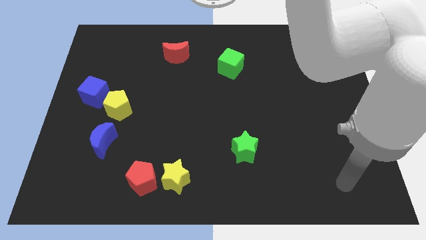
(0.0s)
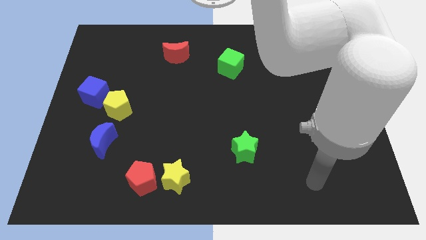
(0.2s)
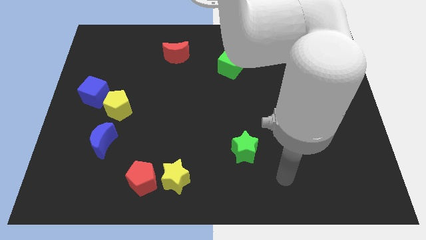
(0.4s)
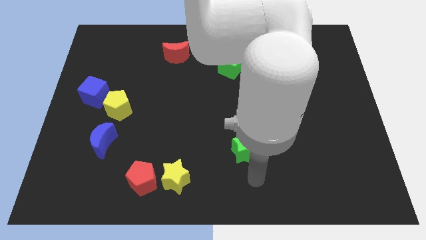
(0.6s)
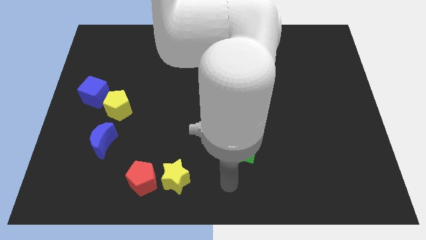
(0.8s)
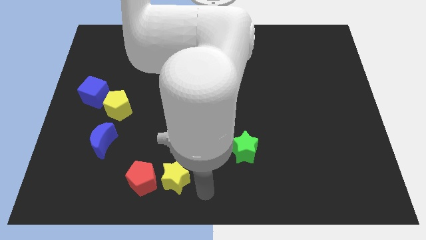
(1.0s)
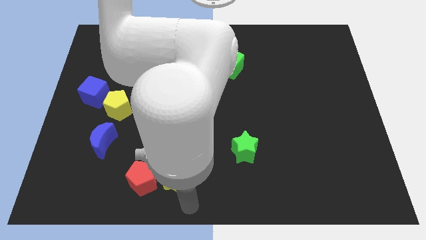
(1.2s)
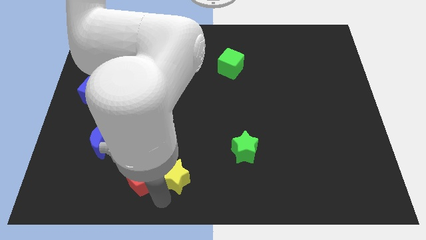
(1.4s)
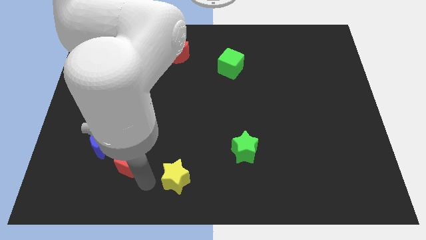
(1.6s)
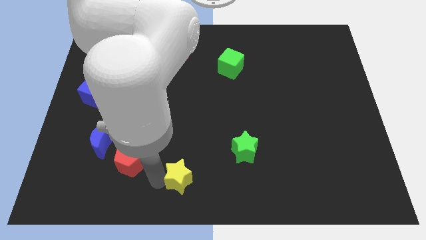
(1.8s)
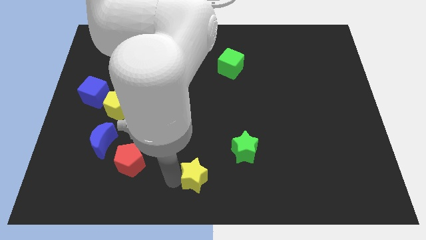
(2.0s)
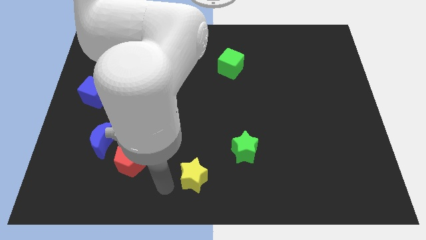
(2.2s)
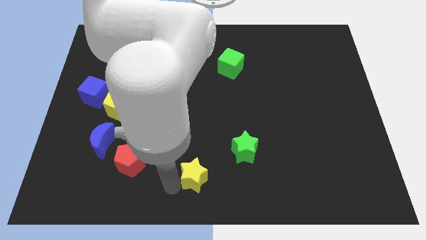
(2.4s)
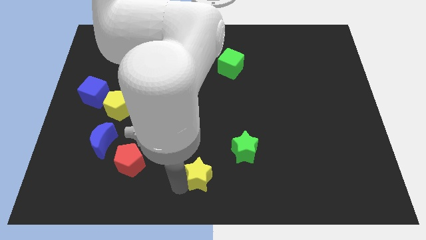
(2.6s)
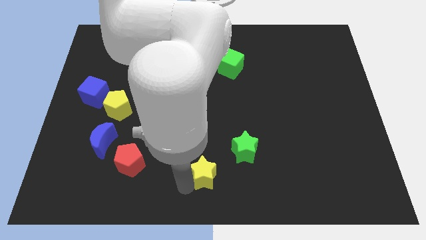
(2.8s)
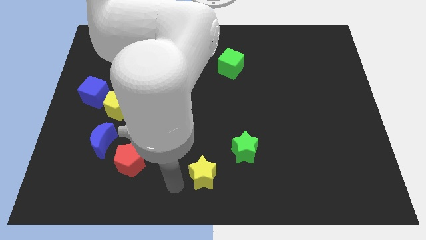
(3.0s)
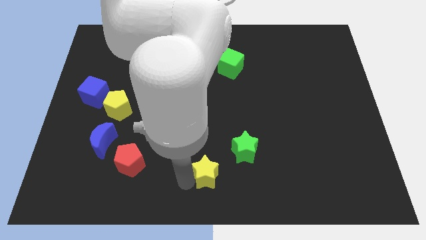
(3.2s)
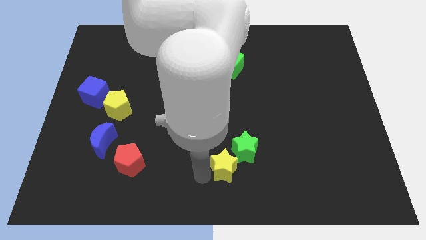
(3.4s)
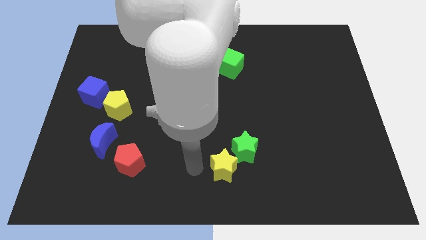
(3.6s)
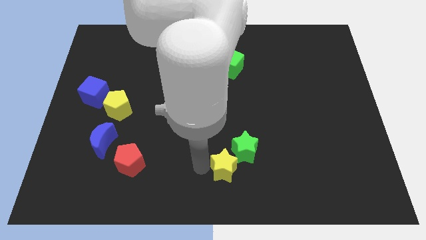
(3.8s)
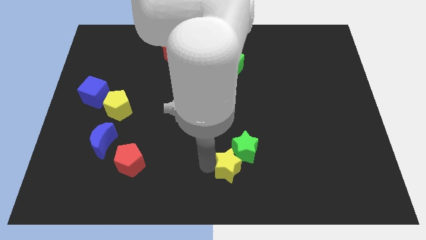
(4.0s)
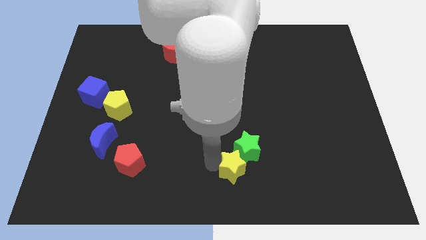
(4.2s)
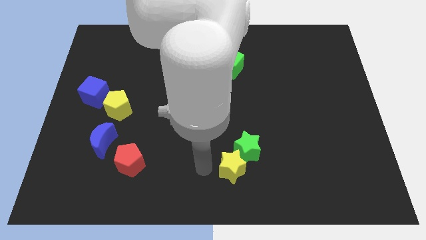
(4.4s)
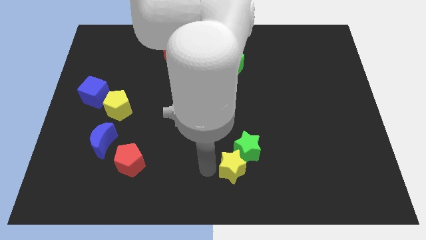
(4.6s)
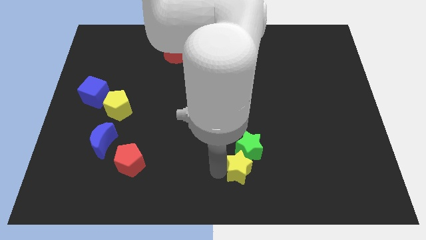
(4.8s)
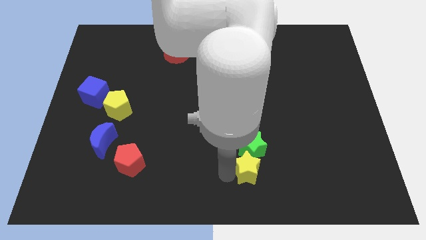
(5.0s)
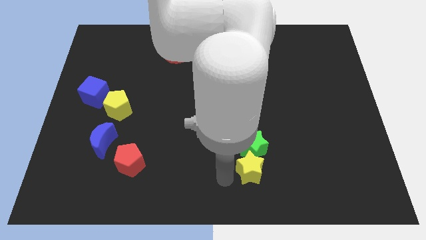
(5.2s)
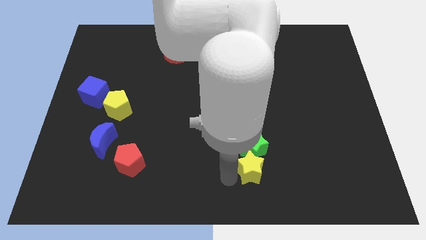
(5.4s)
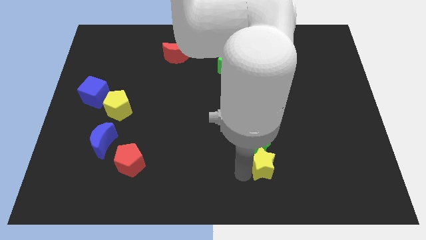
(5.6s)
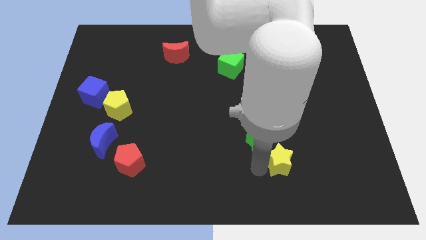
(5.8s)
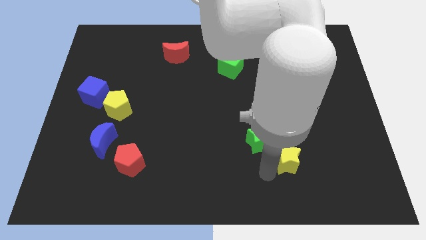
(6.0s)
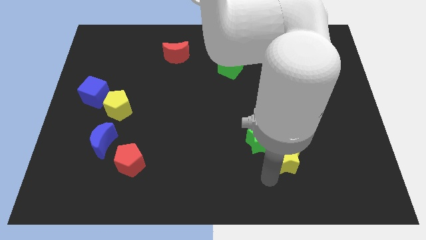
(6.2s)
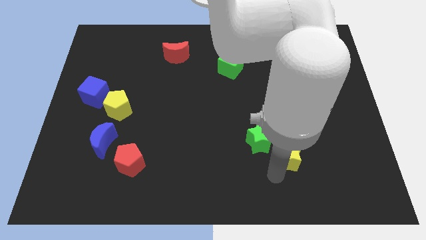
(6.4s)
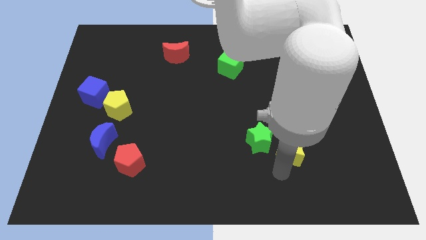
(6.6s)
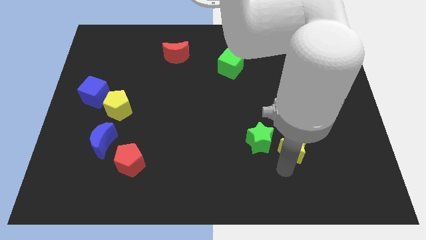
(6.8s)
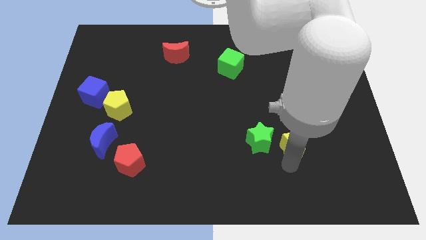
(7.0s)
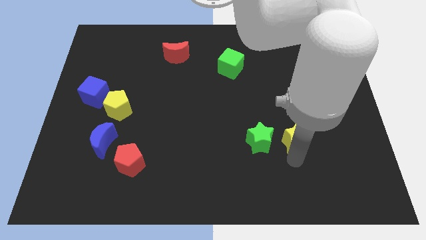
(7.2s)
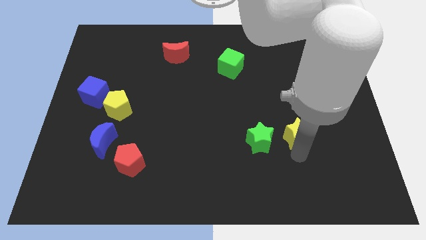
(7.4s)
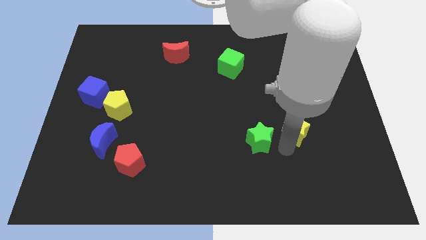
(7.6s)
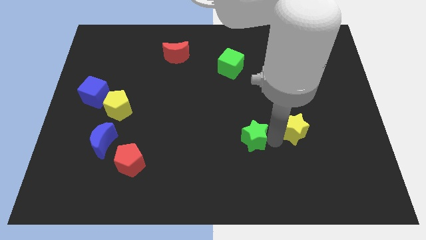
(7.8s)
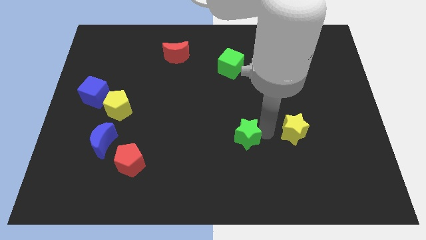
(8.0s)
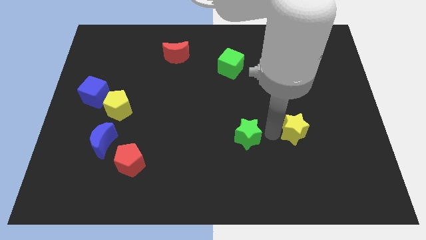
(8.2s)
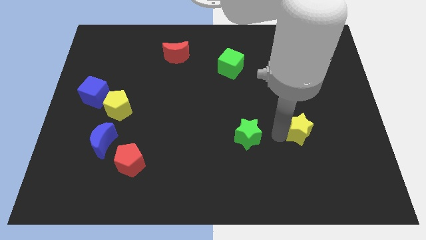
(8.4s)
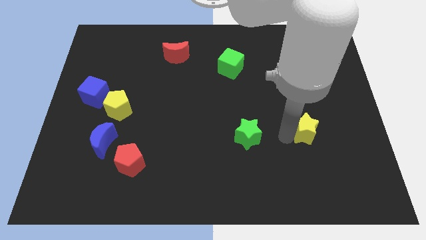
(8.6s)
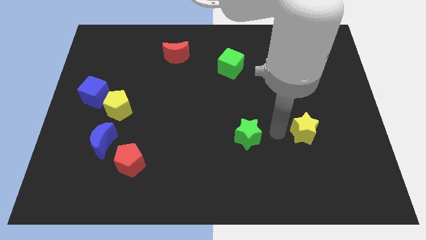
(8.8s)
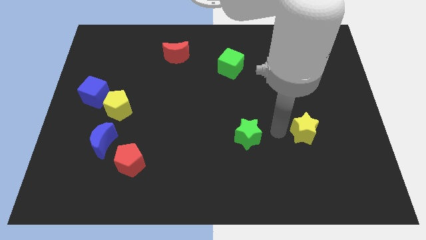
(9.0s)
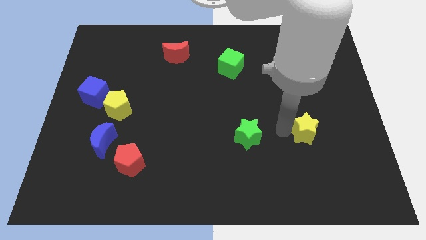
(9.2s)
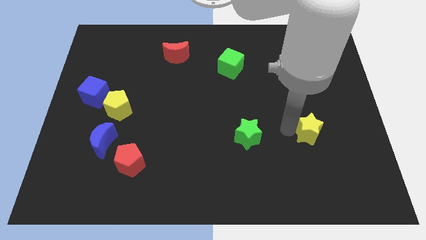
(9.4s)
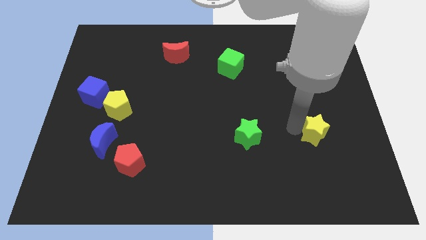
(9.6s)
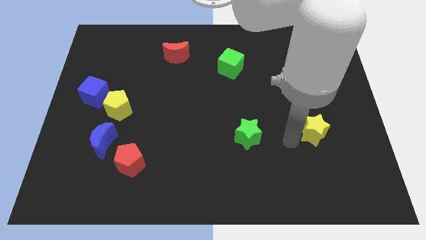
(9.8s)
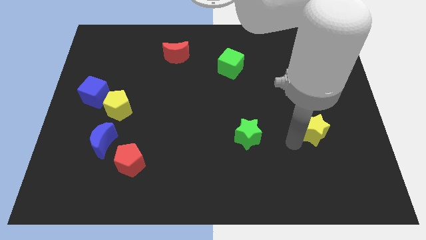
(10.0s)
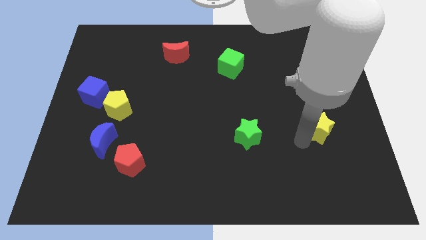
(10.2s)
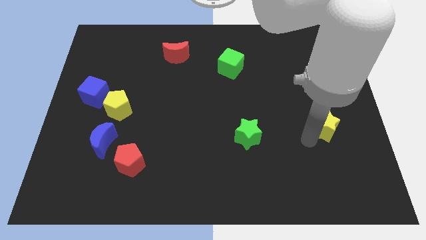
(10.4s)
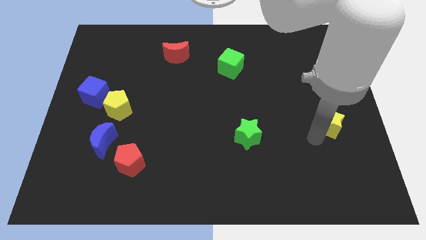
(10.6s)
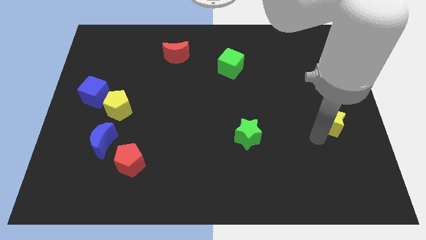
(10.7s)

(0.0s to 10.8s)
slide the yellow star to the right side of the board

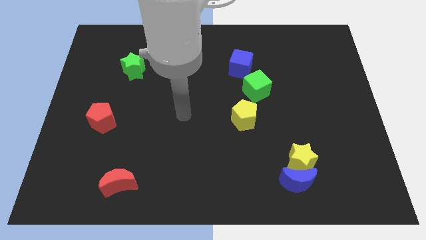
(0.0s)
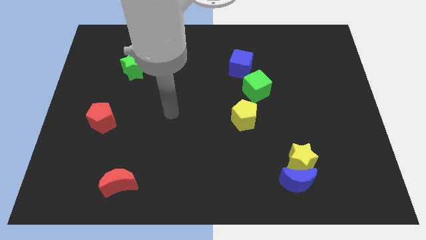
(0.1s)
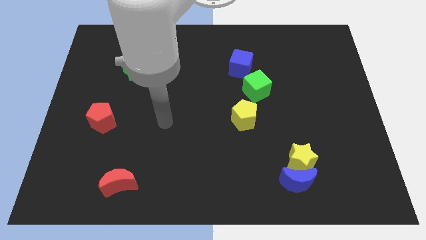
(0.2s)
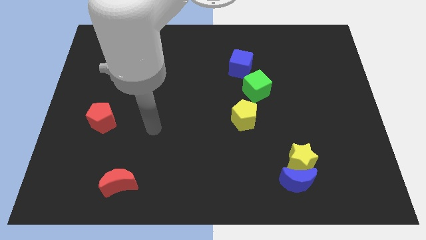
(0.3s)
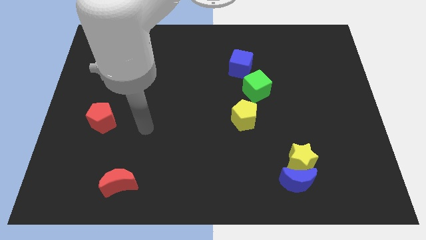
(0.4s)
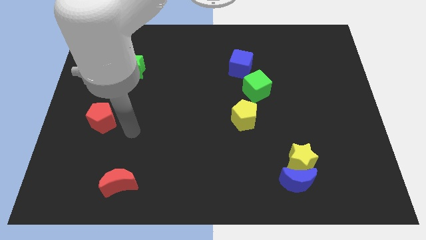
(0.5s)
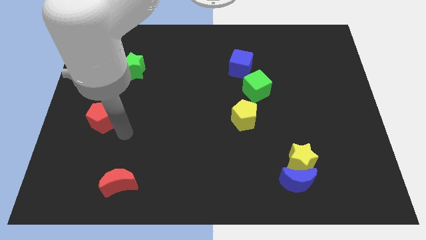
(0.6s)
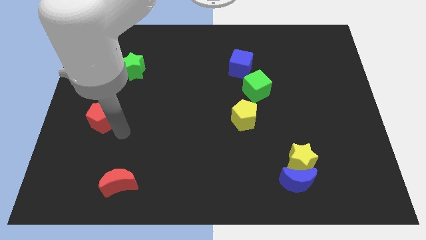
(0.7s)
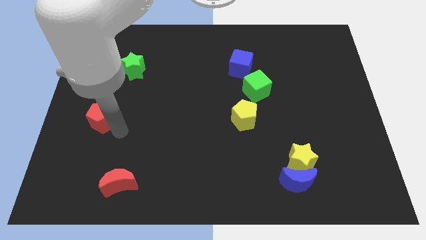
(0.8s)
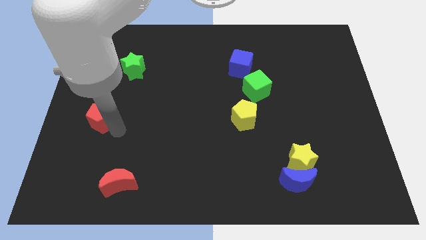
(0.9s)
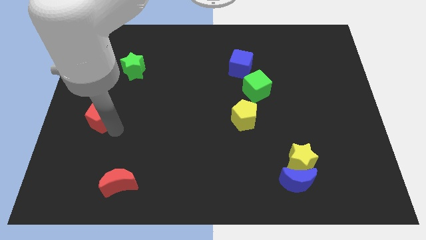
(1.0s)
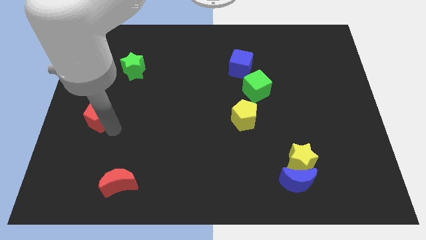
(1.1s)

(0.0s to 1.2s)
slide the red pentagon to the center left
